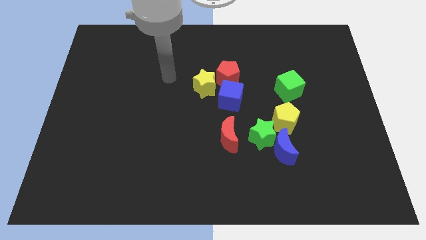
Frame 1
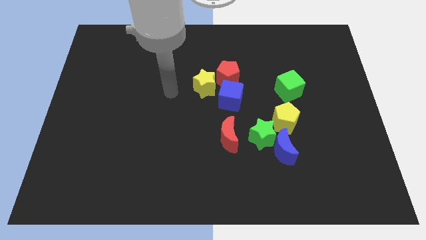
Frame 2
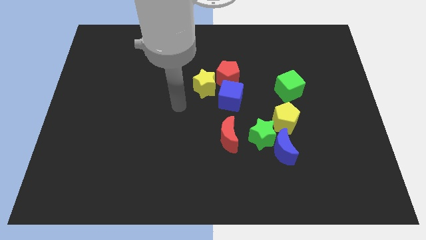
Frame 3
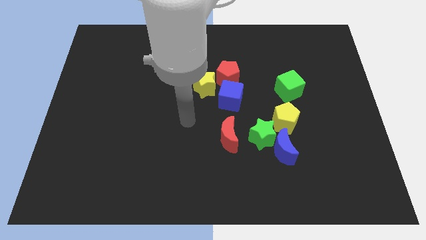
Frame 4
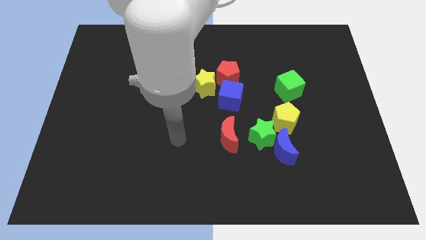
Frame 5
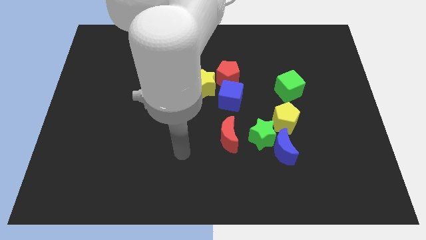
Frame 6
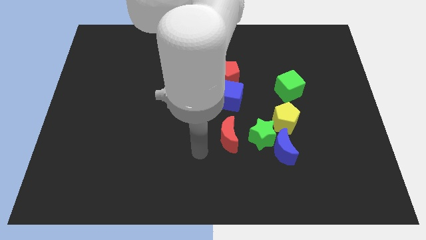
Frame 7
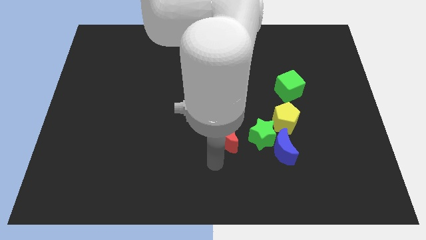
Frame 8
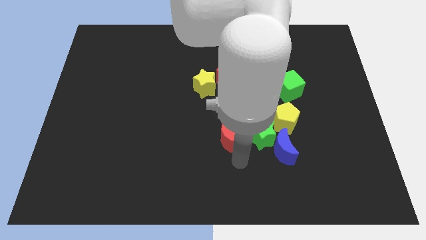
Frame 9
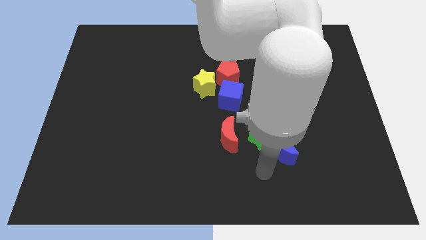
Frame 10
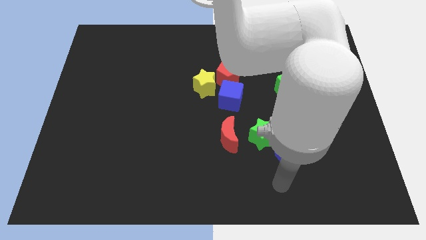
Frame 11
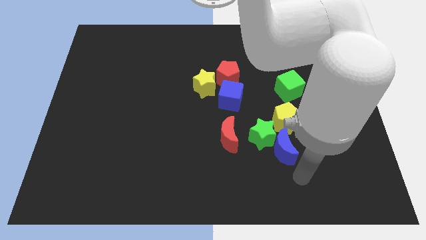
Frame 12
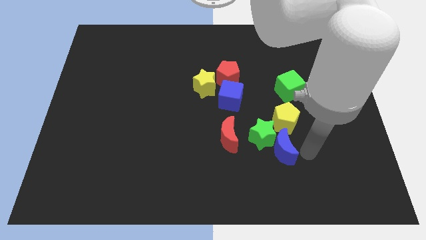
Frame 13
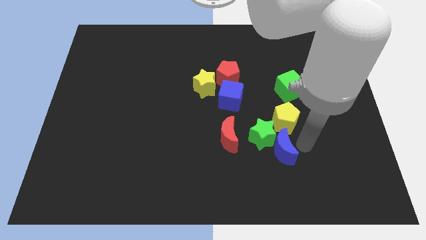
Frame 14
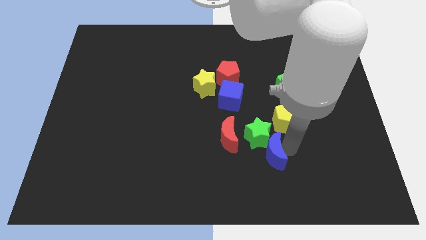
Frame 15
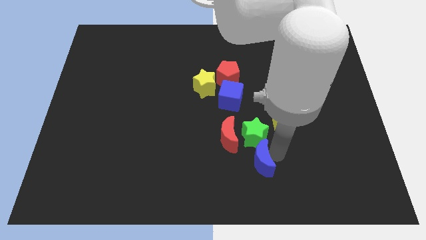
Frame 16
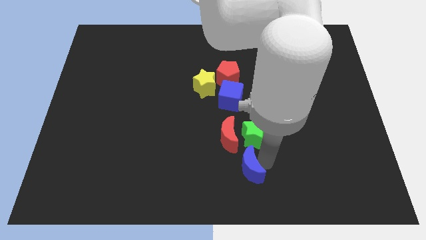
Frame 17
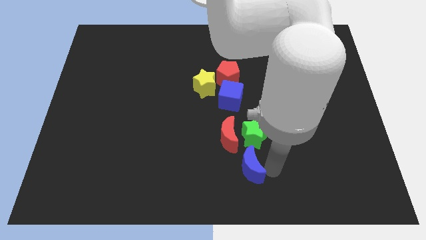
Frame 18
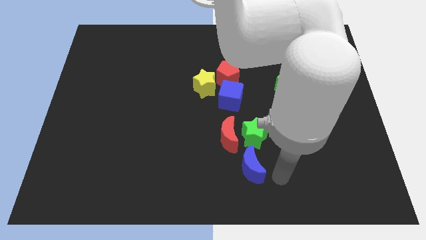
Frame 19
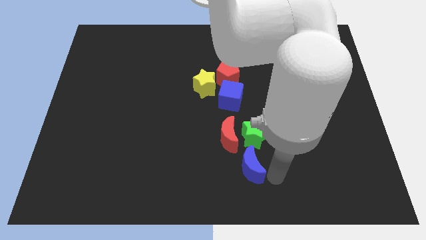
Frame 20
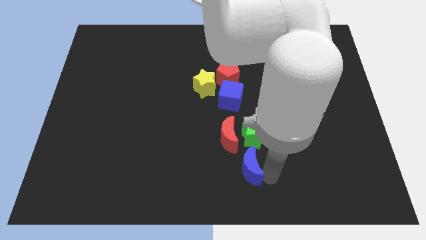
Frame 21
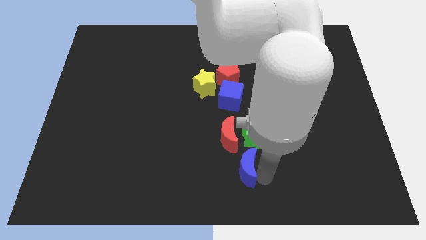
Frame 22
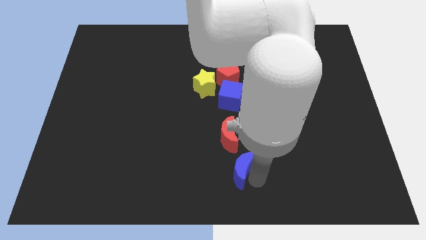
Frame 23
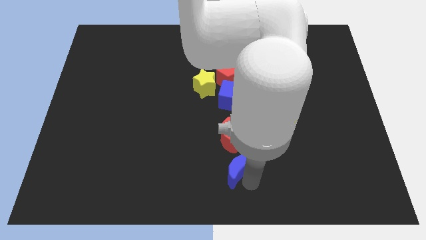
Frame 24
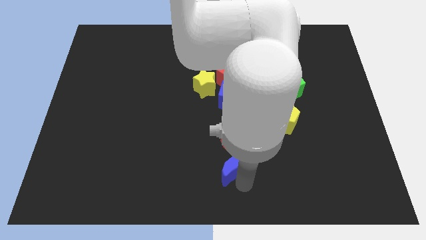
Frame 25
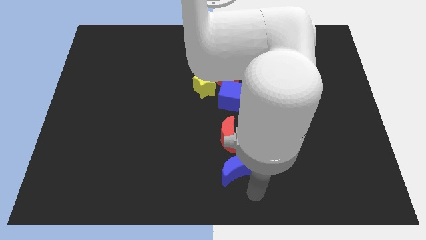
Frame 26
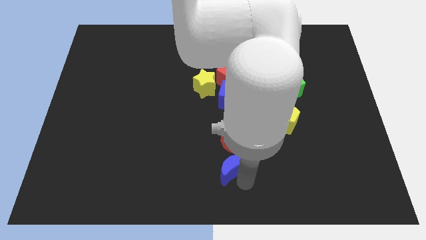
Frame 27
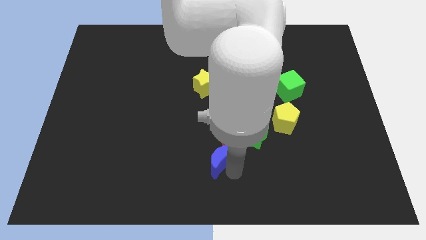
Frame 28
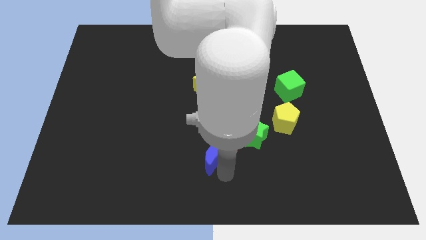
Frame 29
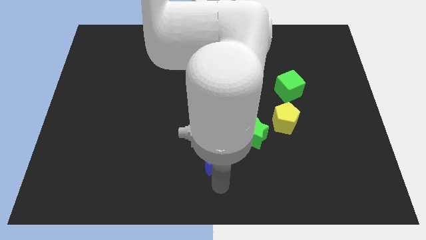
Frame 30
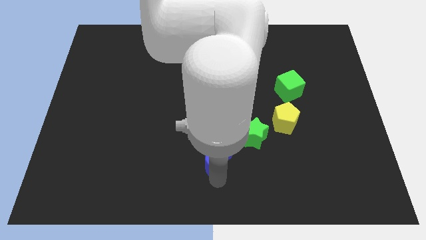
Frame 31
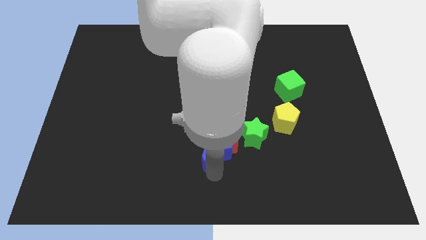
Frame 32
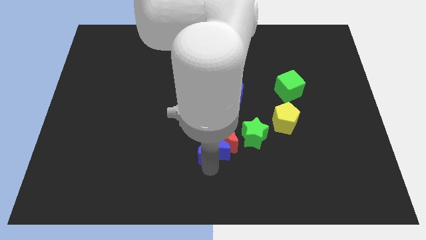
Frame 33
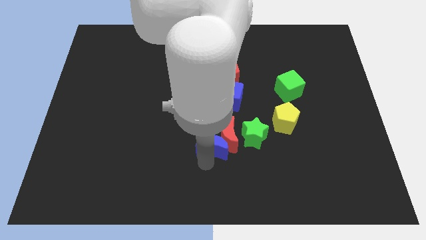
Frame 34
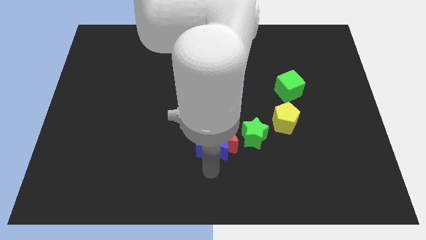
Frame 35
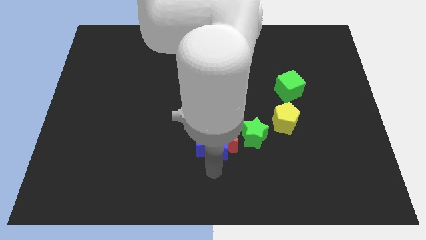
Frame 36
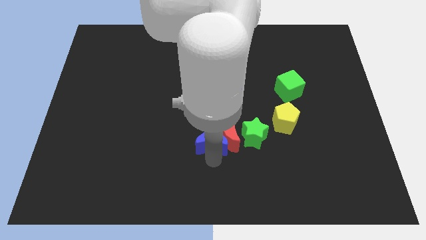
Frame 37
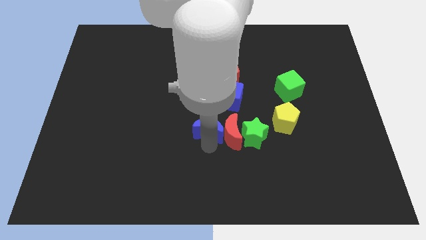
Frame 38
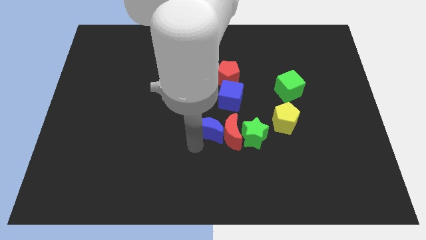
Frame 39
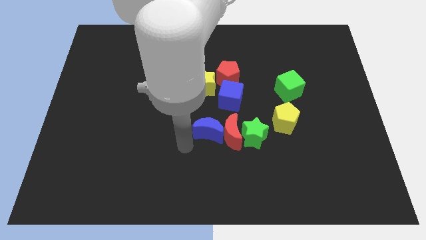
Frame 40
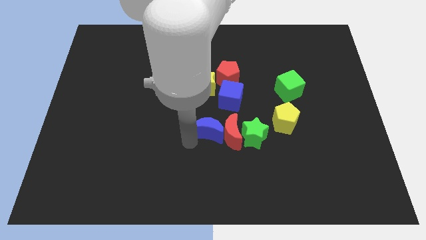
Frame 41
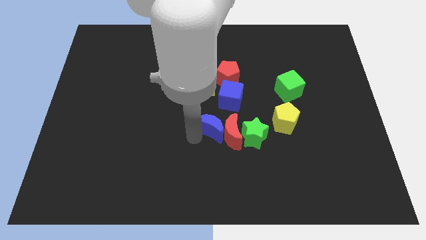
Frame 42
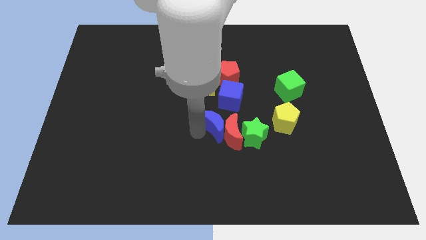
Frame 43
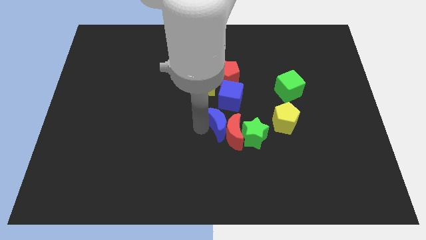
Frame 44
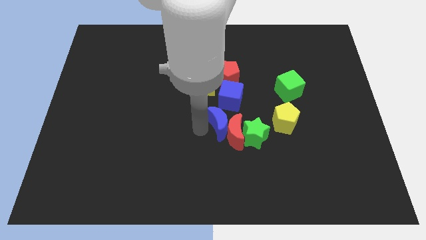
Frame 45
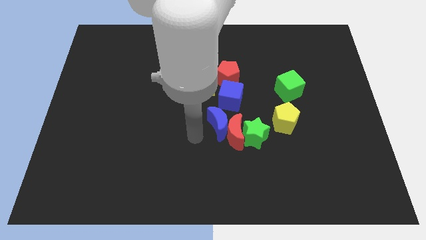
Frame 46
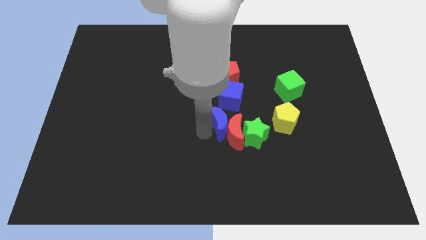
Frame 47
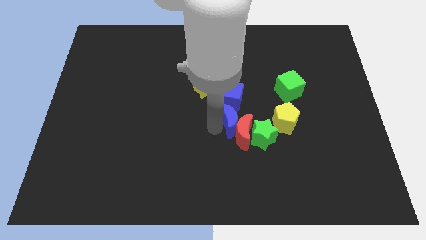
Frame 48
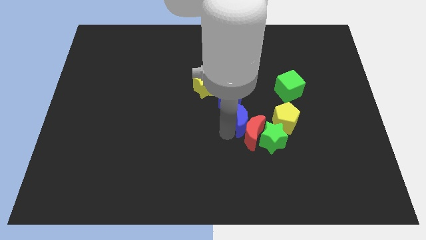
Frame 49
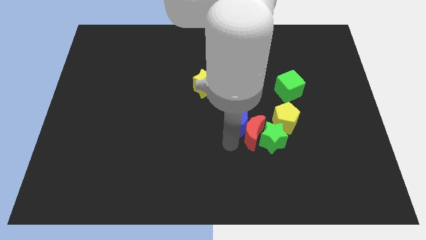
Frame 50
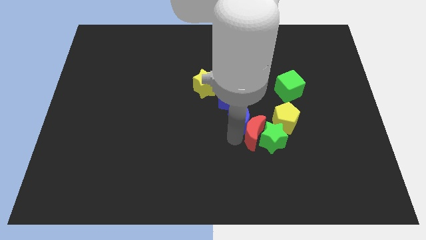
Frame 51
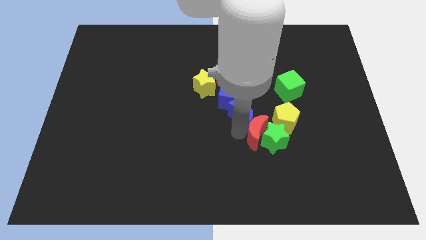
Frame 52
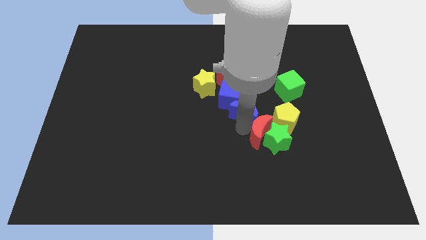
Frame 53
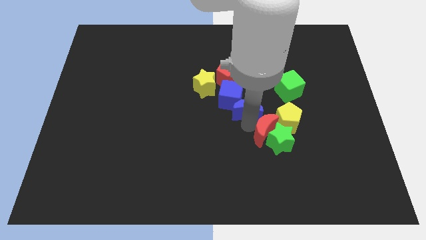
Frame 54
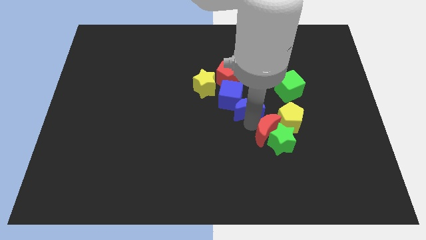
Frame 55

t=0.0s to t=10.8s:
push the blue moon to the bottom right of the red pentagon
